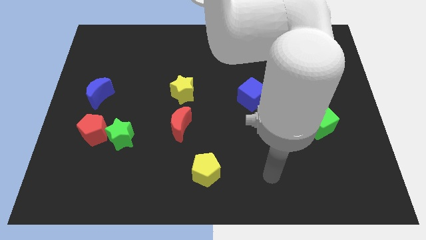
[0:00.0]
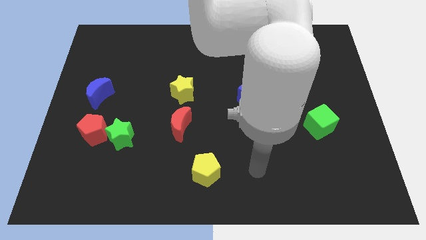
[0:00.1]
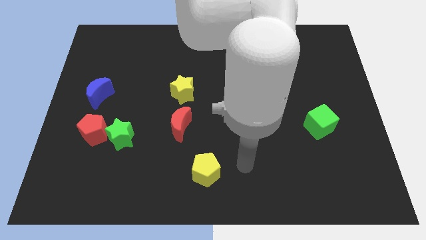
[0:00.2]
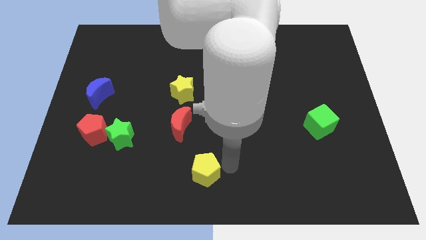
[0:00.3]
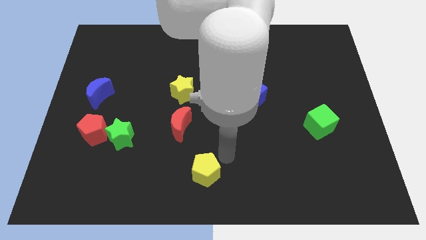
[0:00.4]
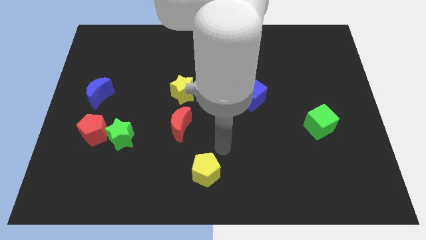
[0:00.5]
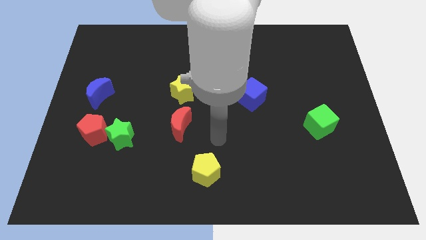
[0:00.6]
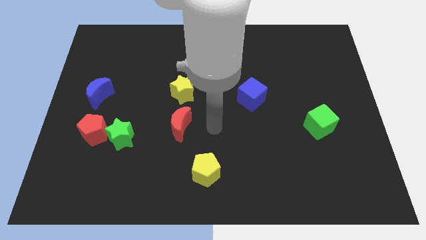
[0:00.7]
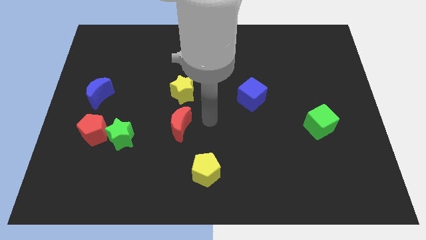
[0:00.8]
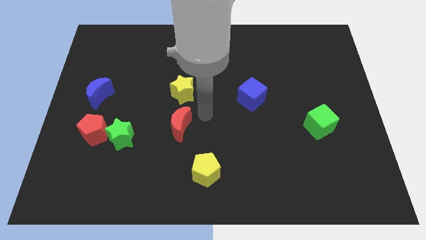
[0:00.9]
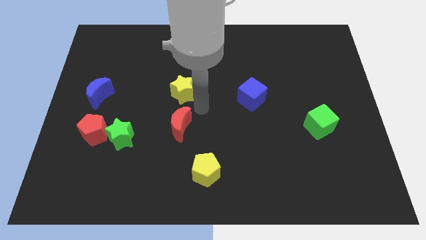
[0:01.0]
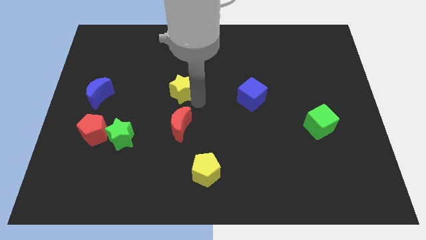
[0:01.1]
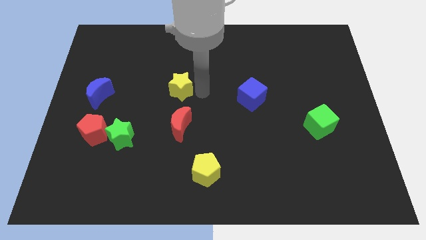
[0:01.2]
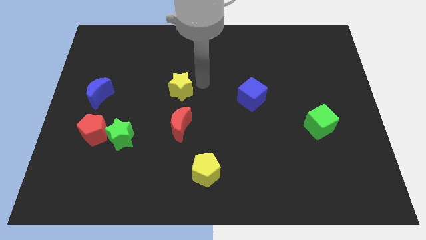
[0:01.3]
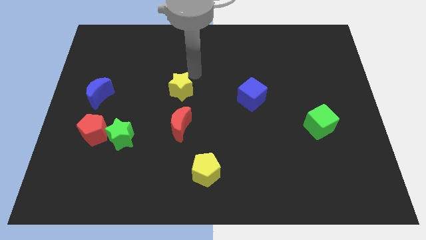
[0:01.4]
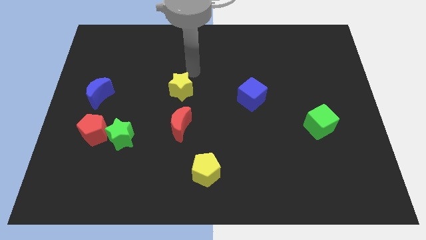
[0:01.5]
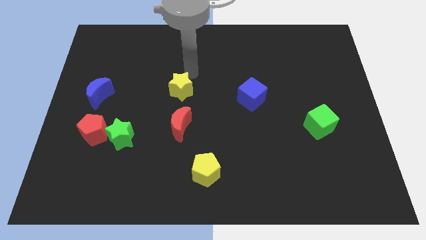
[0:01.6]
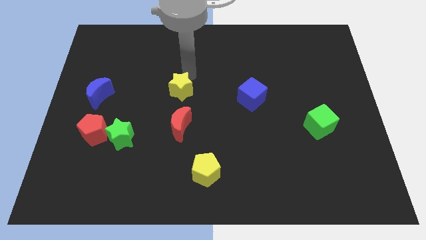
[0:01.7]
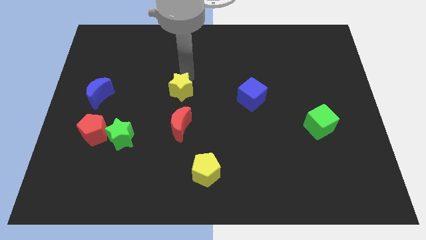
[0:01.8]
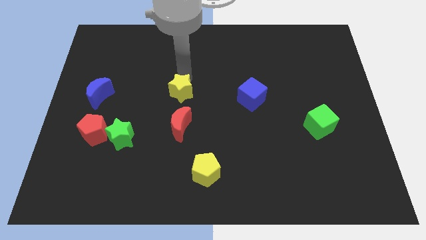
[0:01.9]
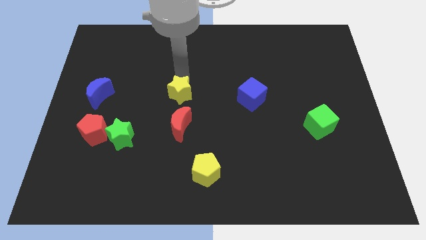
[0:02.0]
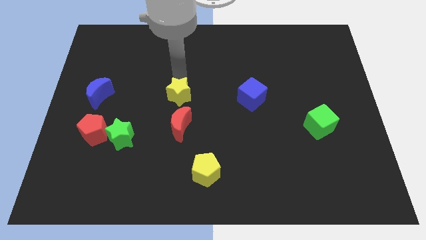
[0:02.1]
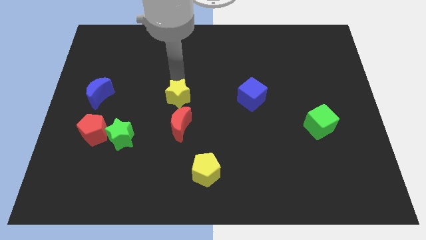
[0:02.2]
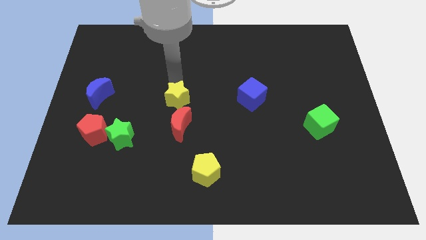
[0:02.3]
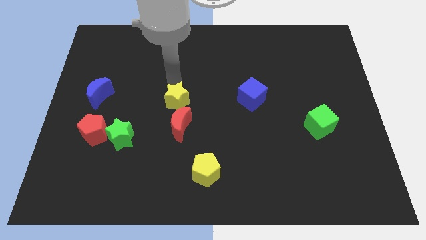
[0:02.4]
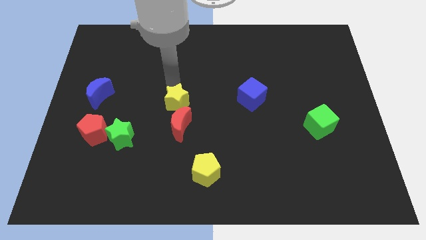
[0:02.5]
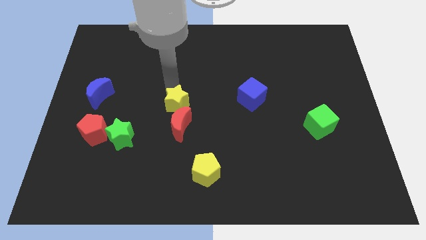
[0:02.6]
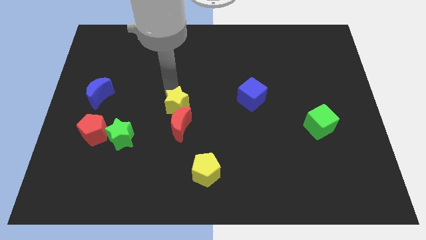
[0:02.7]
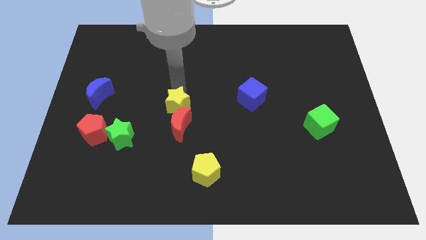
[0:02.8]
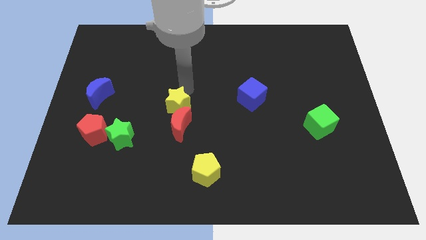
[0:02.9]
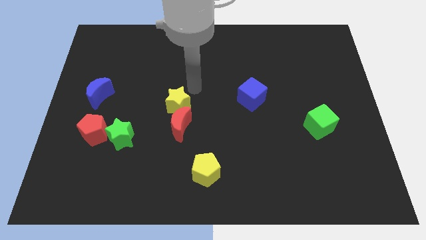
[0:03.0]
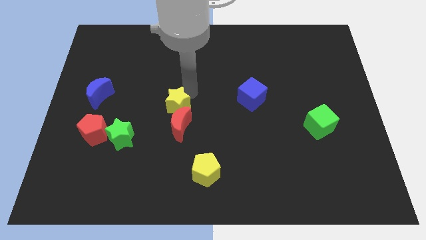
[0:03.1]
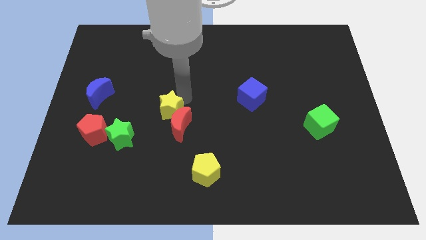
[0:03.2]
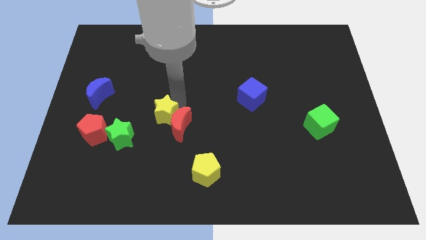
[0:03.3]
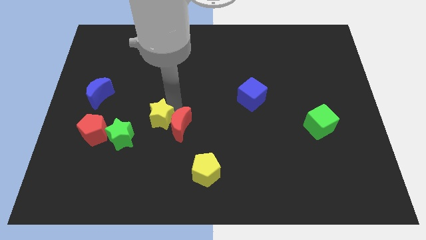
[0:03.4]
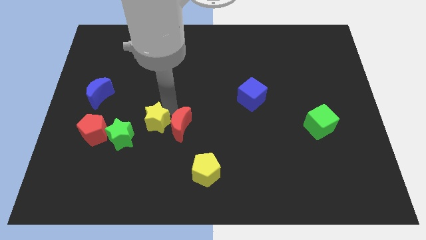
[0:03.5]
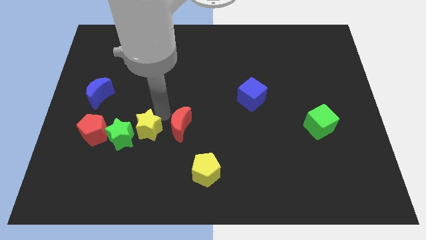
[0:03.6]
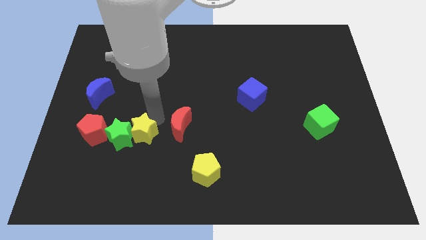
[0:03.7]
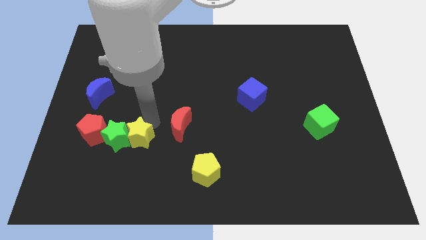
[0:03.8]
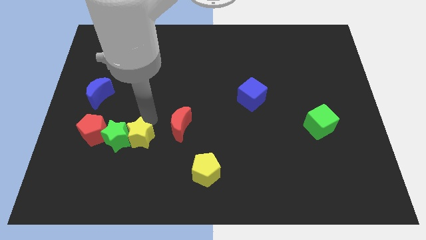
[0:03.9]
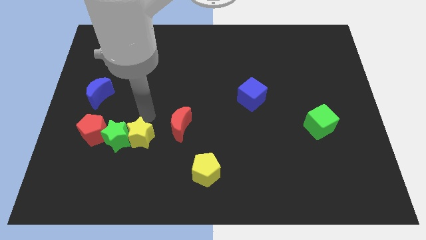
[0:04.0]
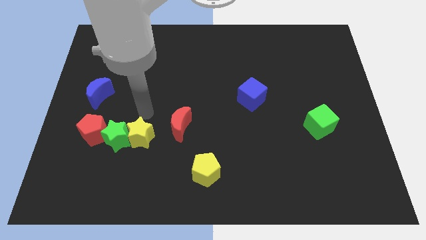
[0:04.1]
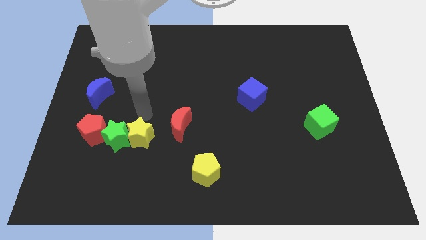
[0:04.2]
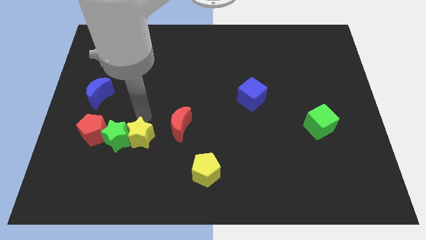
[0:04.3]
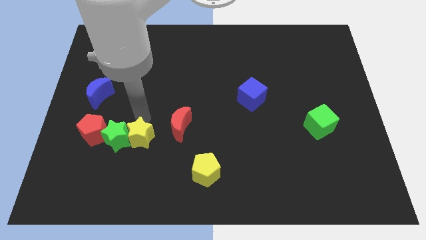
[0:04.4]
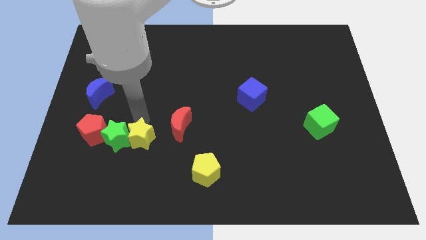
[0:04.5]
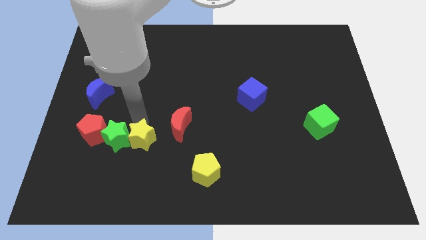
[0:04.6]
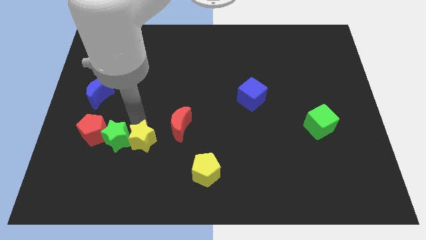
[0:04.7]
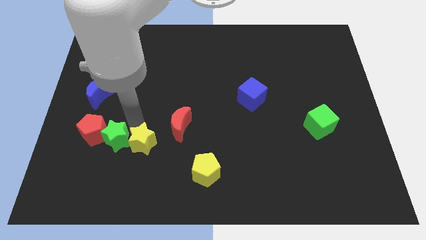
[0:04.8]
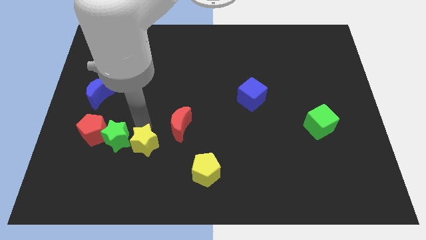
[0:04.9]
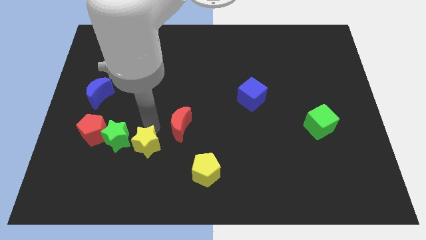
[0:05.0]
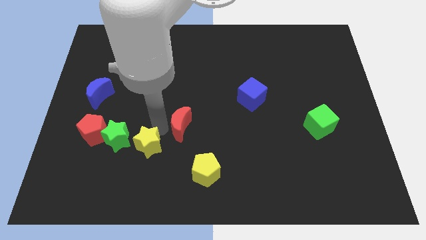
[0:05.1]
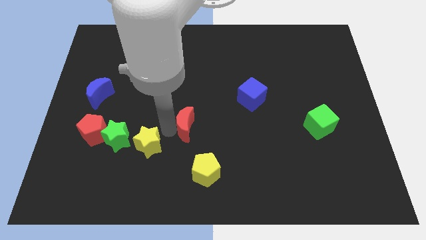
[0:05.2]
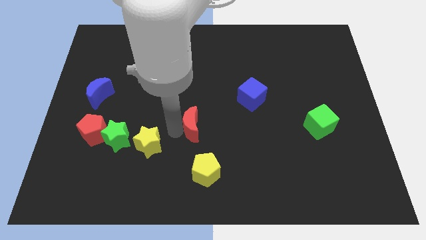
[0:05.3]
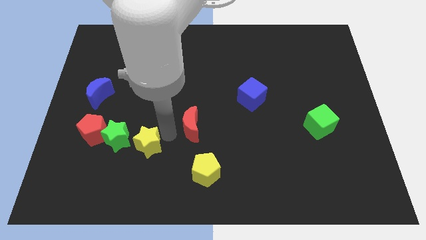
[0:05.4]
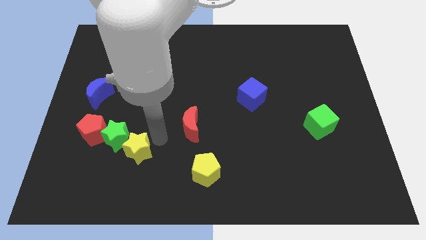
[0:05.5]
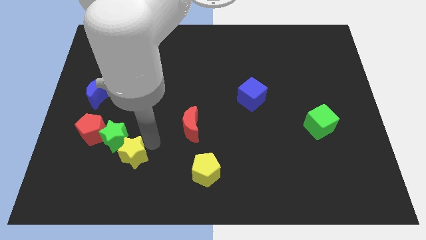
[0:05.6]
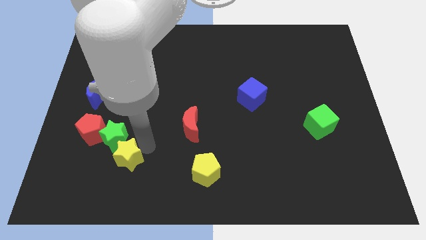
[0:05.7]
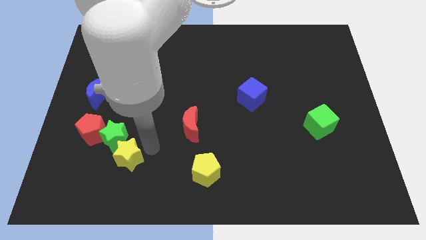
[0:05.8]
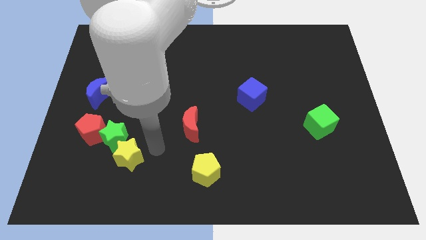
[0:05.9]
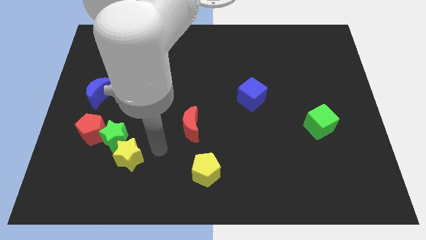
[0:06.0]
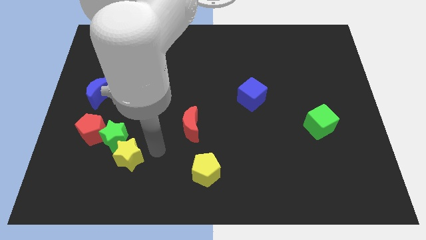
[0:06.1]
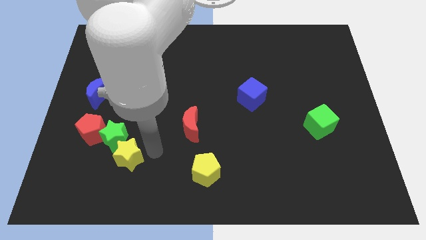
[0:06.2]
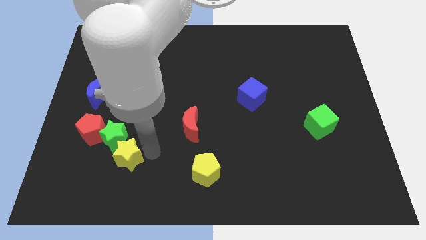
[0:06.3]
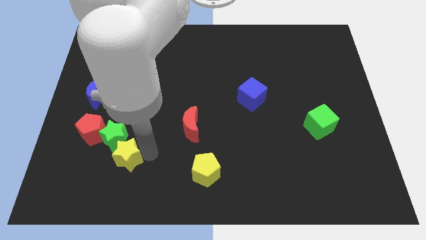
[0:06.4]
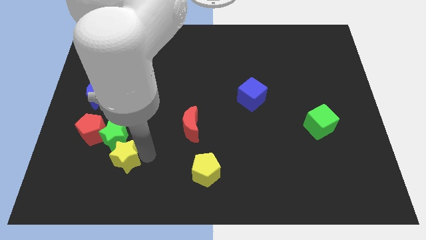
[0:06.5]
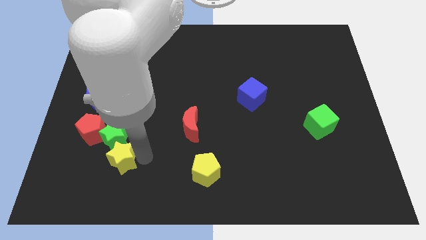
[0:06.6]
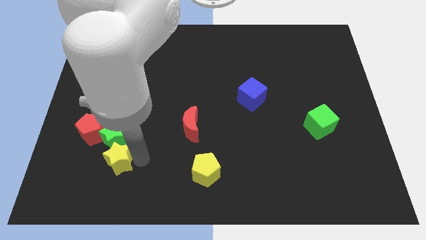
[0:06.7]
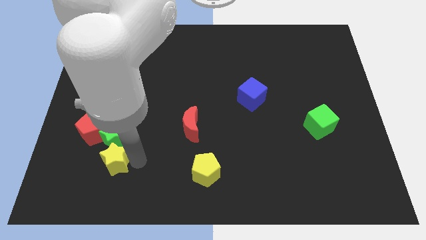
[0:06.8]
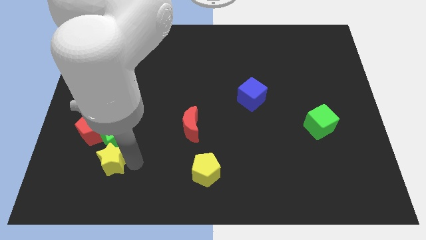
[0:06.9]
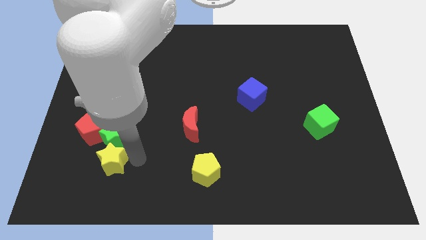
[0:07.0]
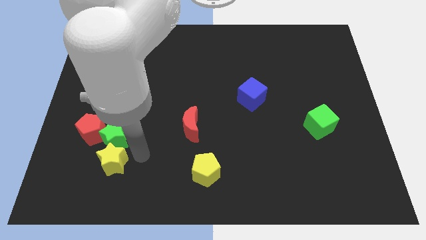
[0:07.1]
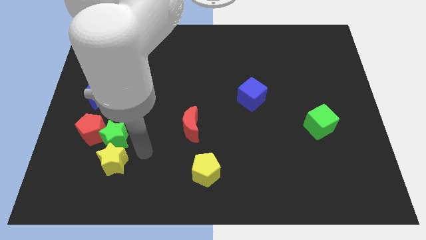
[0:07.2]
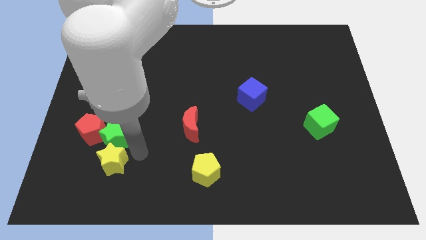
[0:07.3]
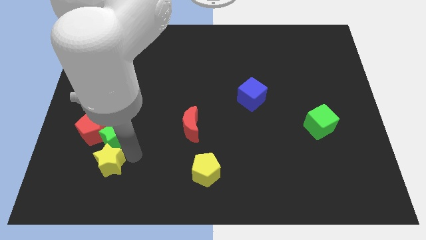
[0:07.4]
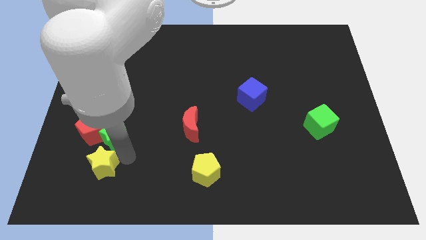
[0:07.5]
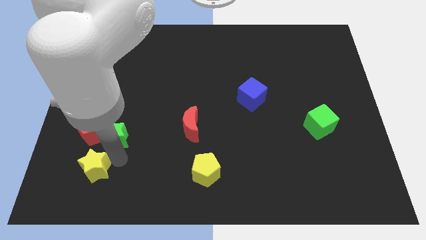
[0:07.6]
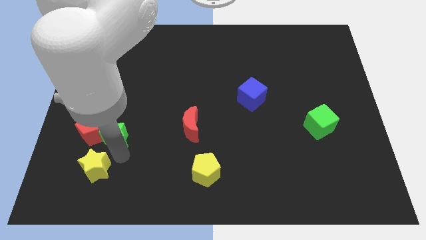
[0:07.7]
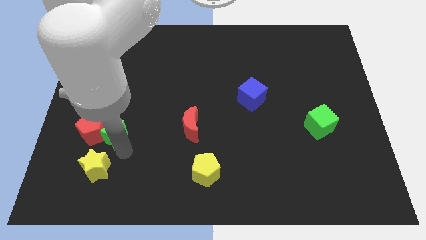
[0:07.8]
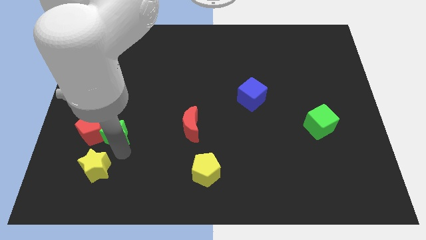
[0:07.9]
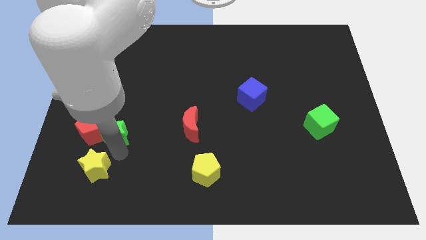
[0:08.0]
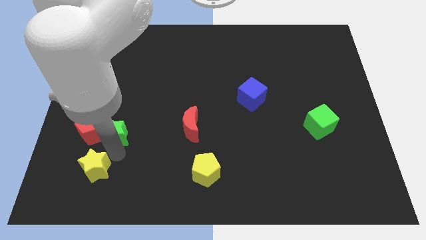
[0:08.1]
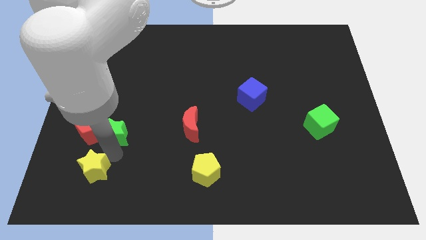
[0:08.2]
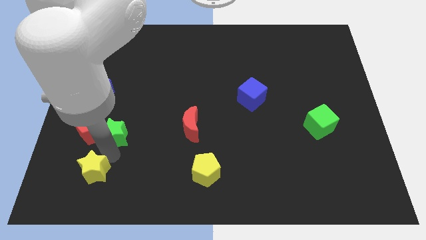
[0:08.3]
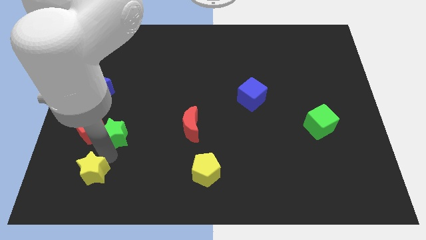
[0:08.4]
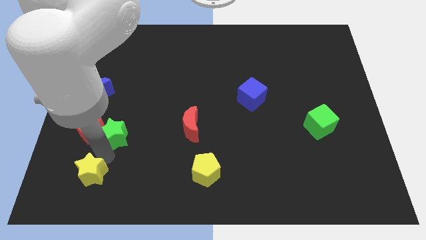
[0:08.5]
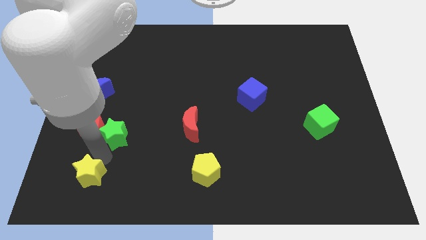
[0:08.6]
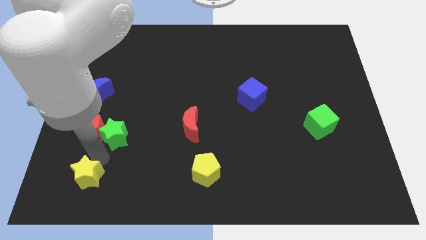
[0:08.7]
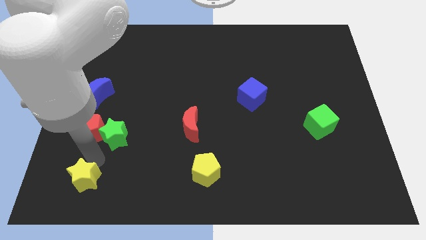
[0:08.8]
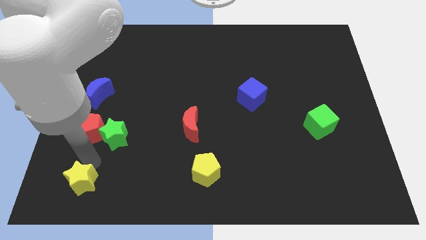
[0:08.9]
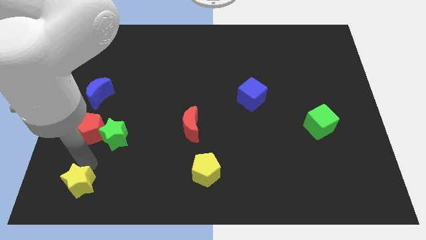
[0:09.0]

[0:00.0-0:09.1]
put the yellow star to the bottom left corner
